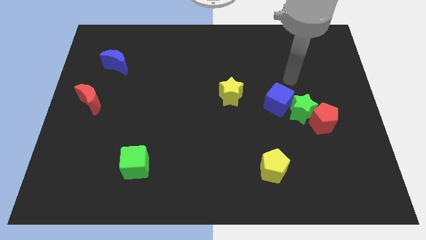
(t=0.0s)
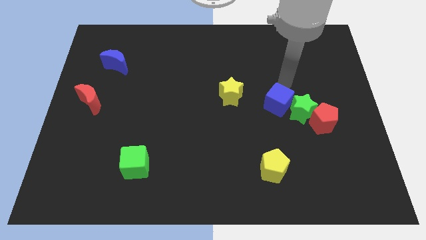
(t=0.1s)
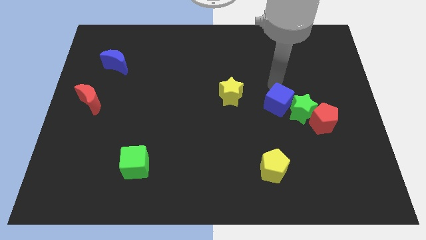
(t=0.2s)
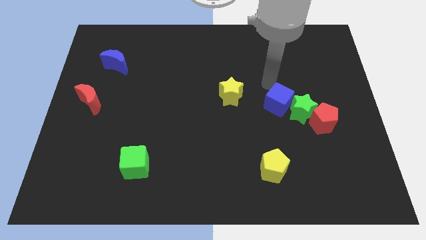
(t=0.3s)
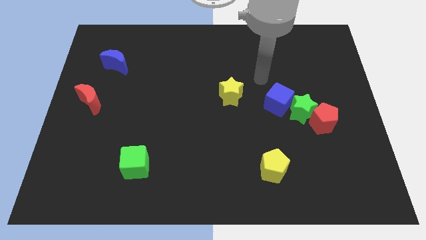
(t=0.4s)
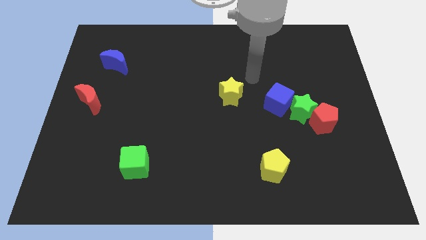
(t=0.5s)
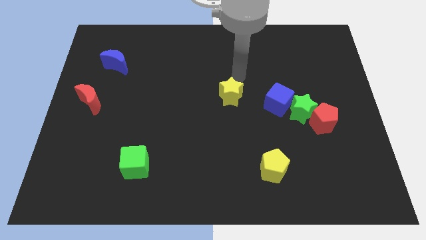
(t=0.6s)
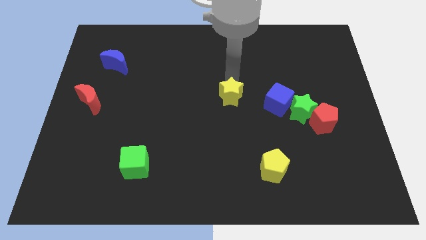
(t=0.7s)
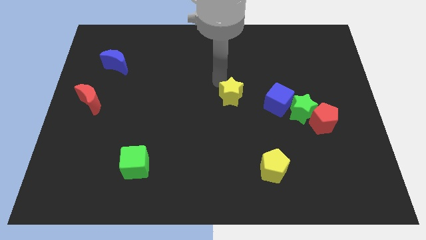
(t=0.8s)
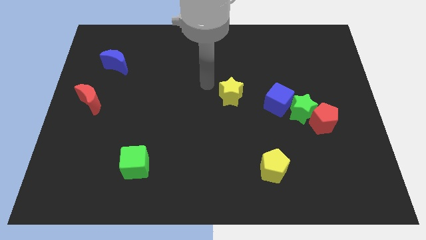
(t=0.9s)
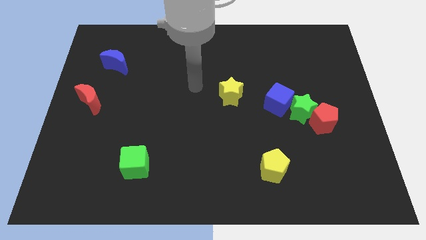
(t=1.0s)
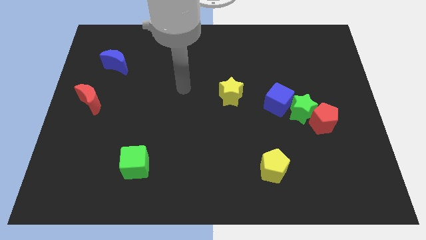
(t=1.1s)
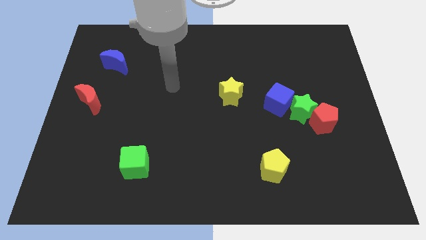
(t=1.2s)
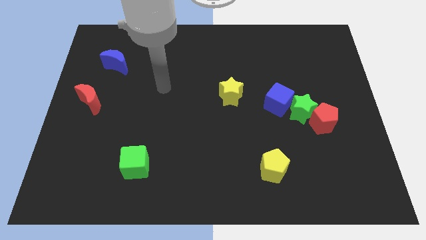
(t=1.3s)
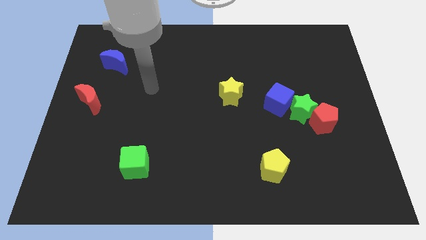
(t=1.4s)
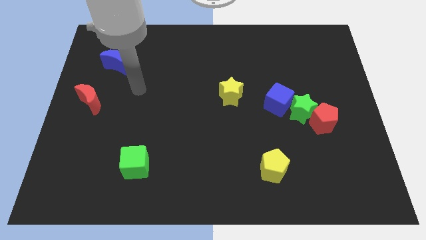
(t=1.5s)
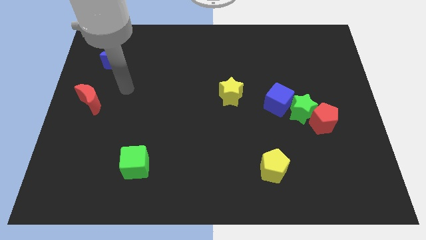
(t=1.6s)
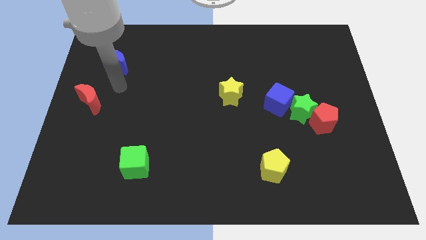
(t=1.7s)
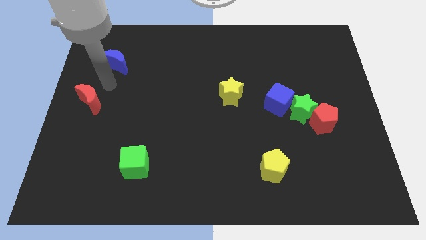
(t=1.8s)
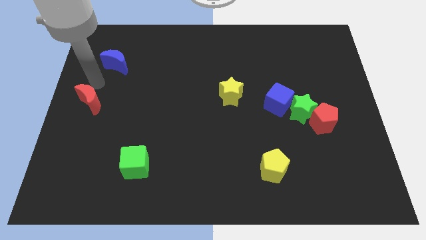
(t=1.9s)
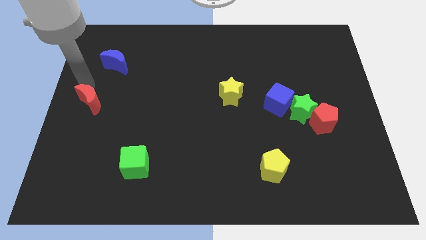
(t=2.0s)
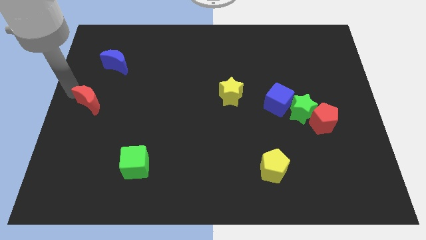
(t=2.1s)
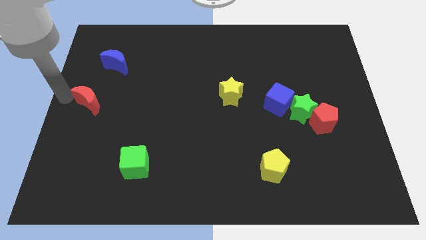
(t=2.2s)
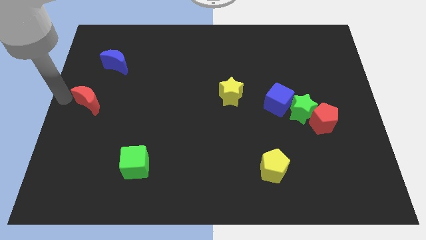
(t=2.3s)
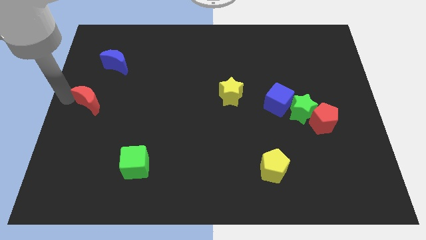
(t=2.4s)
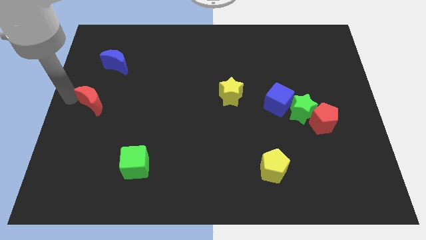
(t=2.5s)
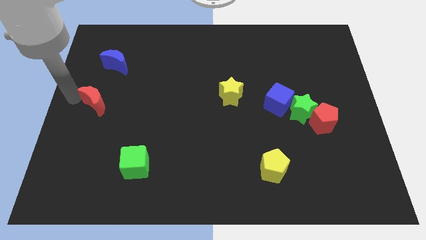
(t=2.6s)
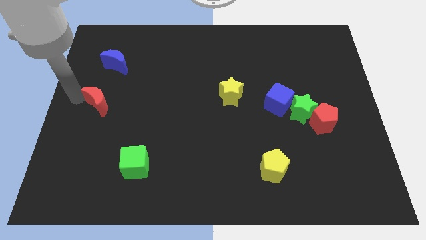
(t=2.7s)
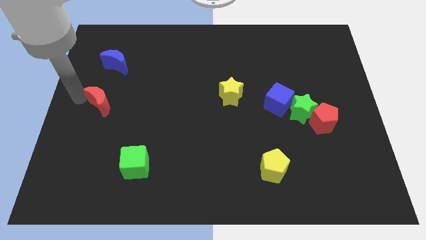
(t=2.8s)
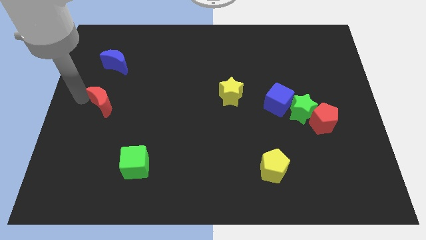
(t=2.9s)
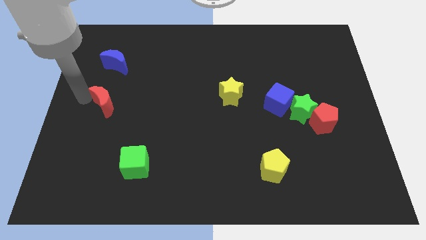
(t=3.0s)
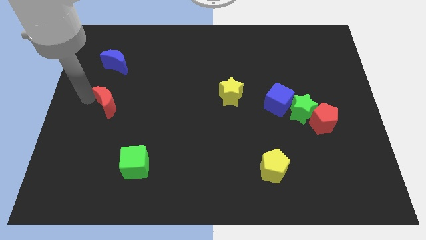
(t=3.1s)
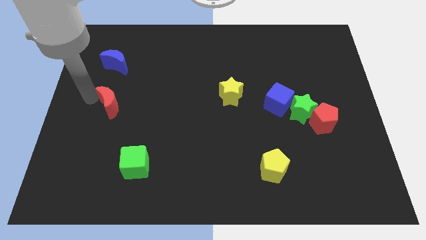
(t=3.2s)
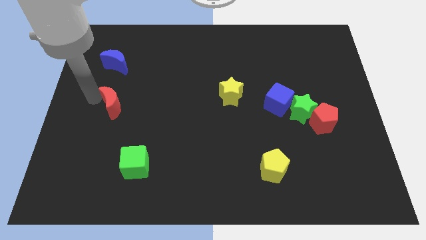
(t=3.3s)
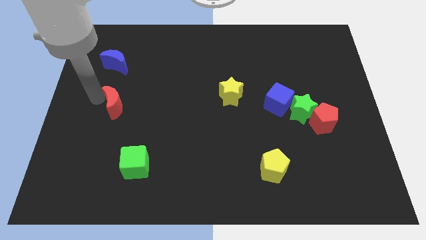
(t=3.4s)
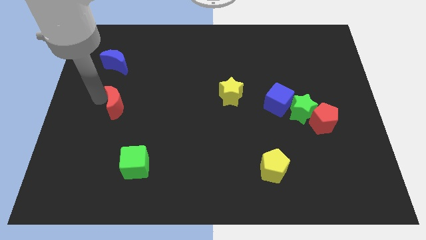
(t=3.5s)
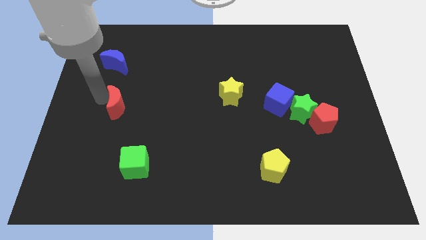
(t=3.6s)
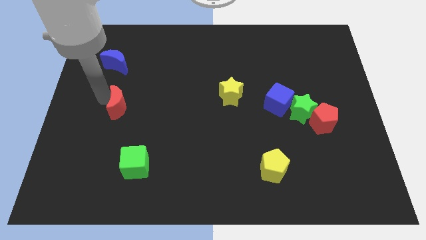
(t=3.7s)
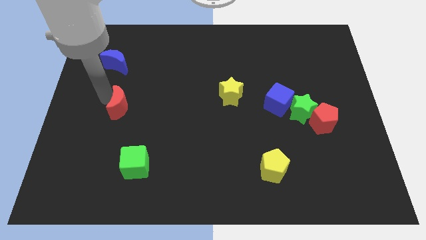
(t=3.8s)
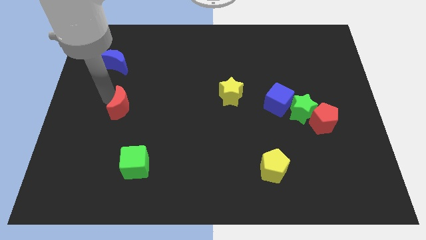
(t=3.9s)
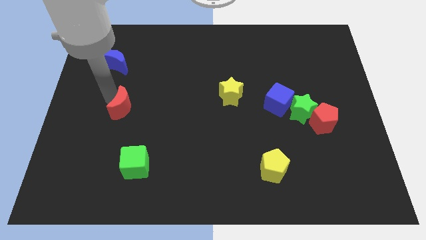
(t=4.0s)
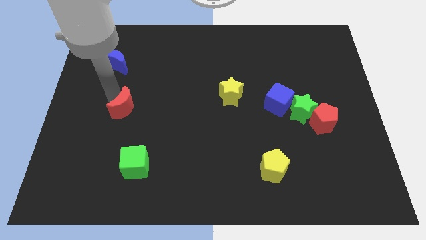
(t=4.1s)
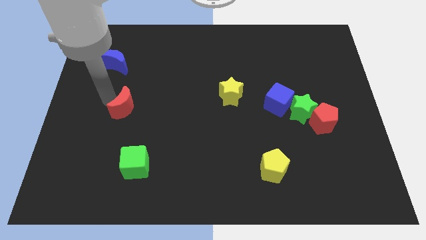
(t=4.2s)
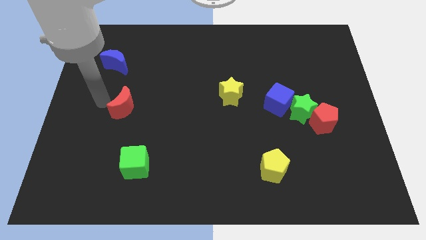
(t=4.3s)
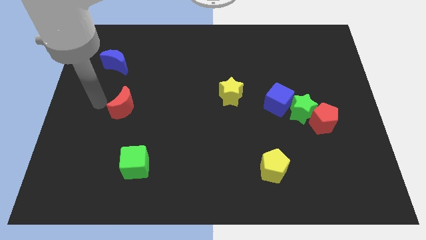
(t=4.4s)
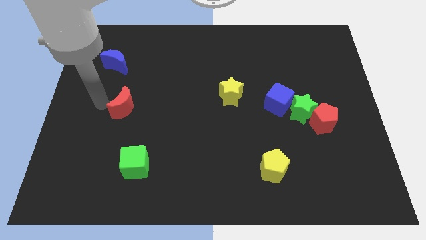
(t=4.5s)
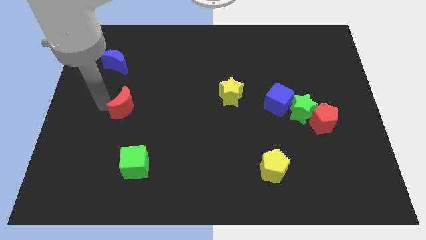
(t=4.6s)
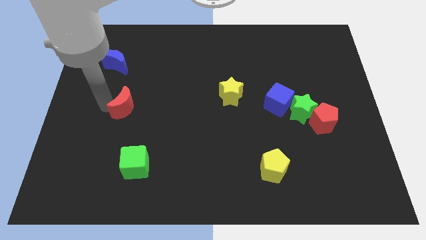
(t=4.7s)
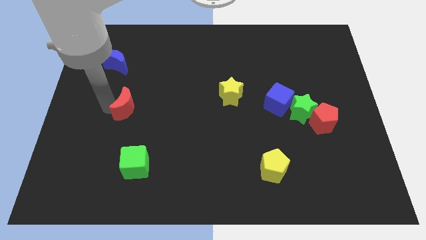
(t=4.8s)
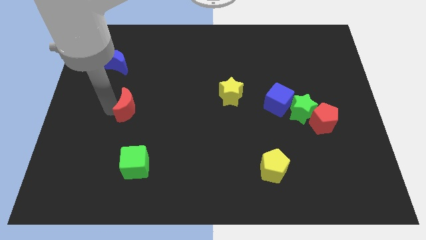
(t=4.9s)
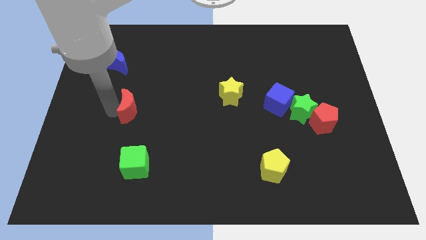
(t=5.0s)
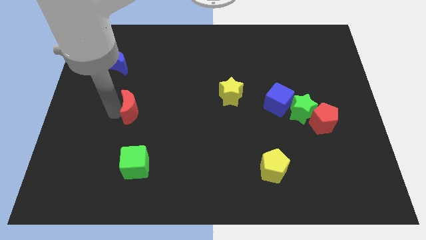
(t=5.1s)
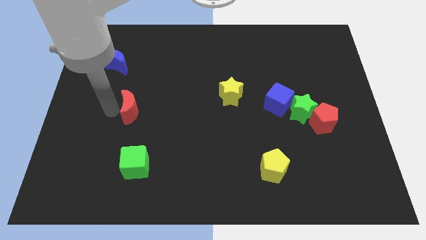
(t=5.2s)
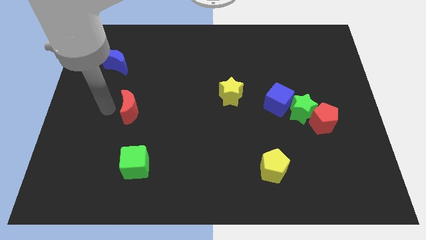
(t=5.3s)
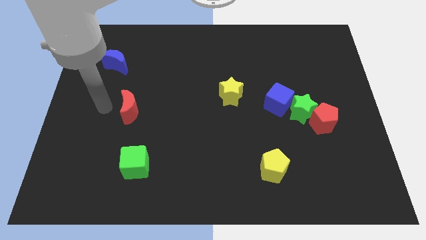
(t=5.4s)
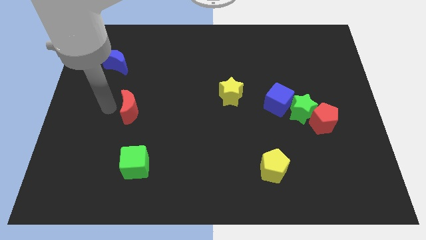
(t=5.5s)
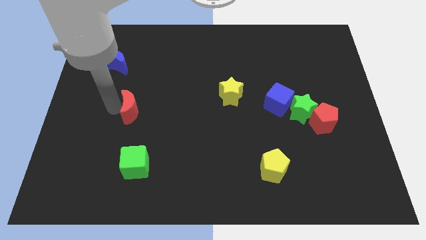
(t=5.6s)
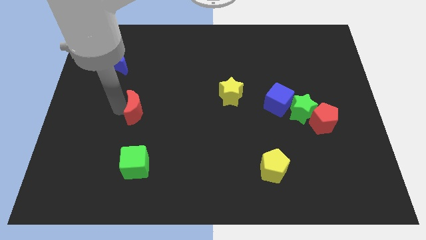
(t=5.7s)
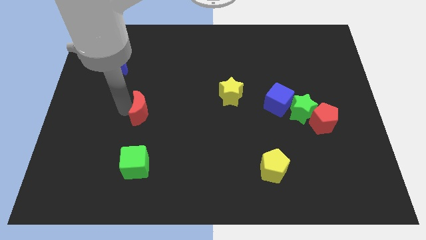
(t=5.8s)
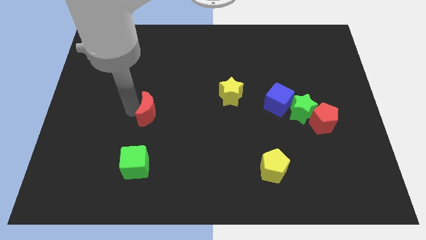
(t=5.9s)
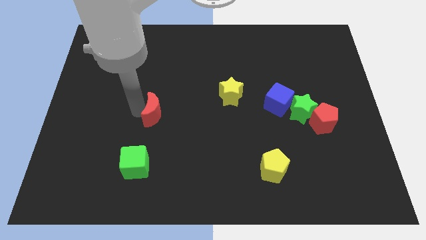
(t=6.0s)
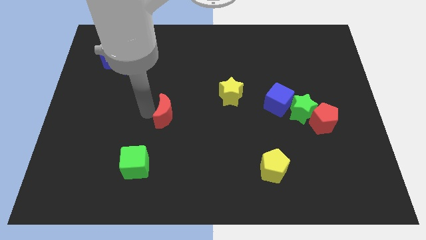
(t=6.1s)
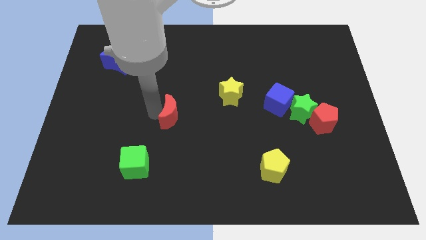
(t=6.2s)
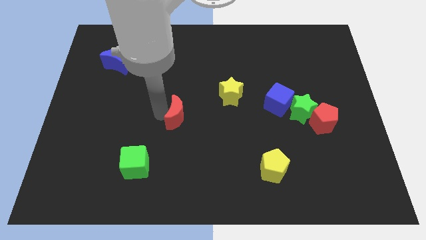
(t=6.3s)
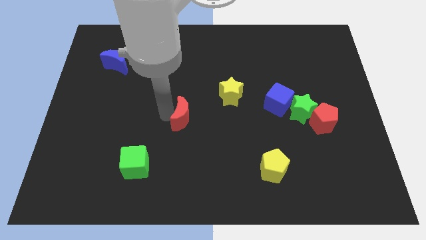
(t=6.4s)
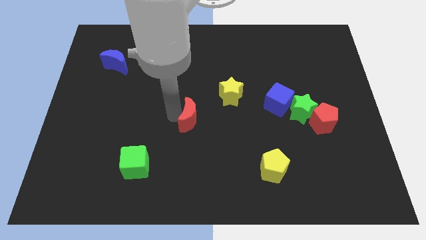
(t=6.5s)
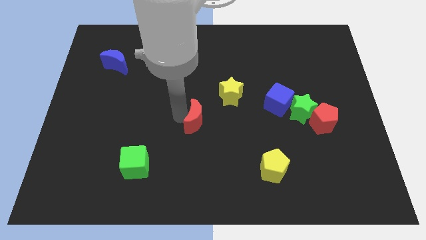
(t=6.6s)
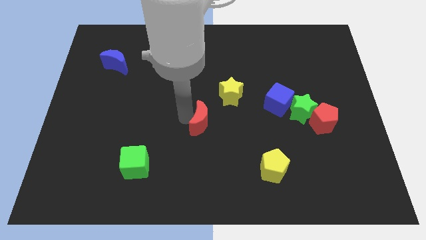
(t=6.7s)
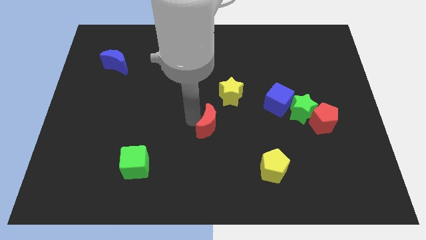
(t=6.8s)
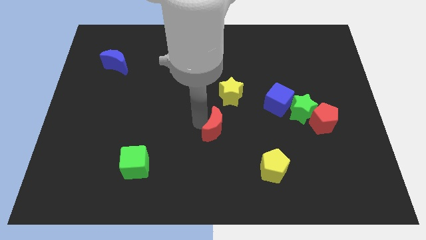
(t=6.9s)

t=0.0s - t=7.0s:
put the red moon to the bottom of the yellow star
